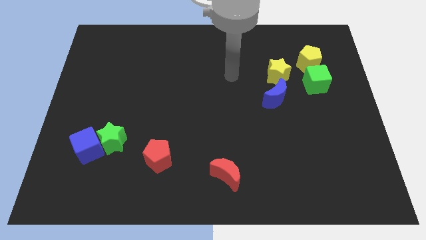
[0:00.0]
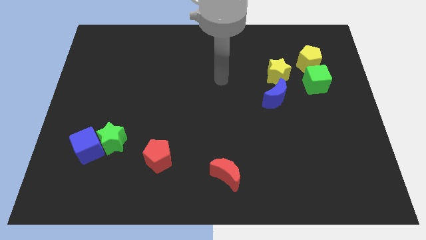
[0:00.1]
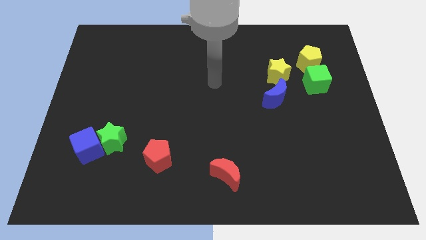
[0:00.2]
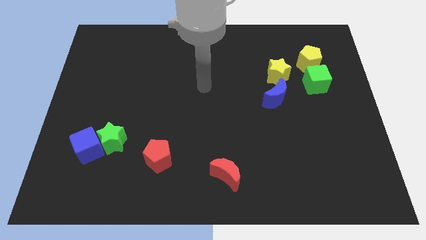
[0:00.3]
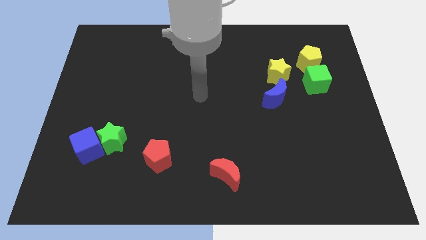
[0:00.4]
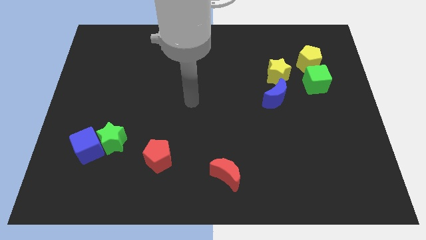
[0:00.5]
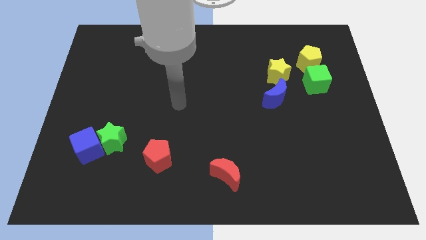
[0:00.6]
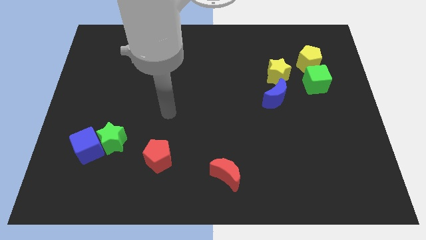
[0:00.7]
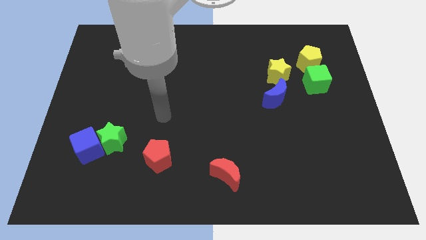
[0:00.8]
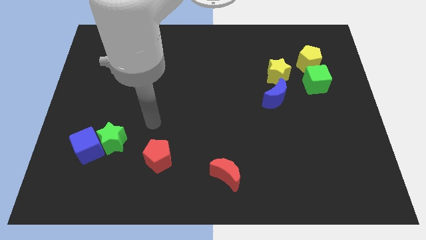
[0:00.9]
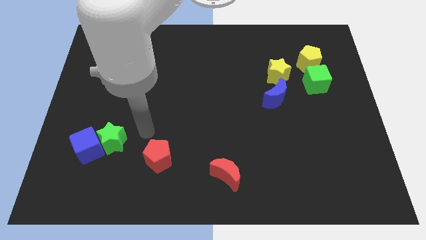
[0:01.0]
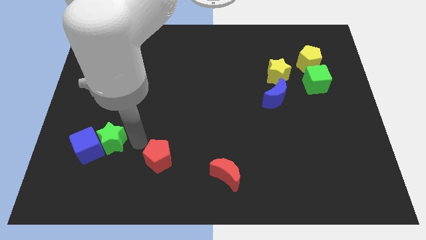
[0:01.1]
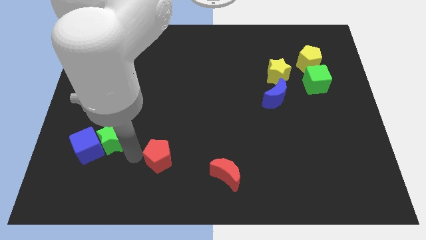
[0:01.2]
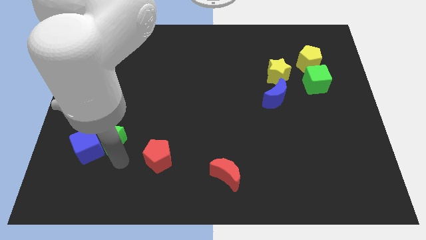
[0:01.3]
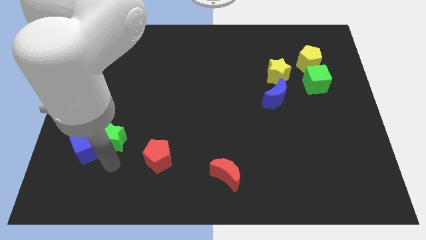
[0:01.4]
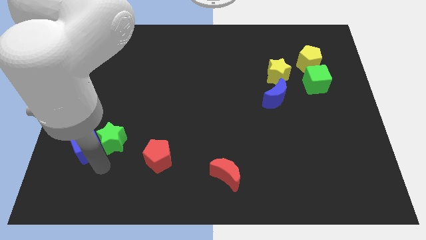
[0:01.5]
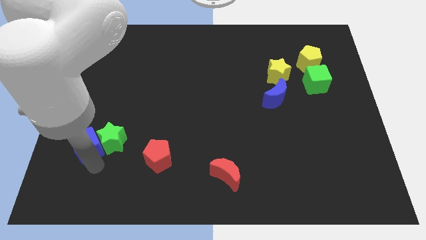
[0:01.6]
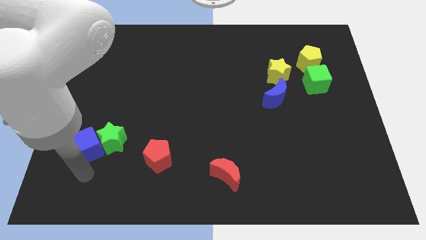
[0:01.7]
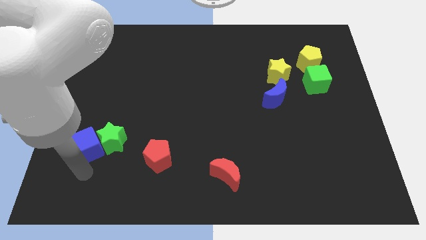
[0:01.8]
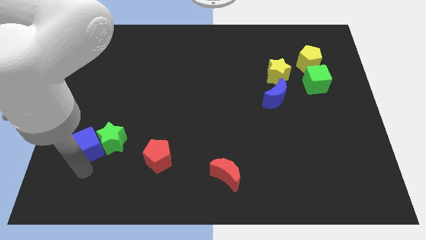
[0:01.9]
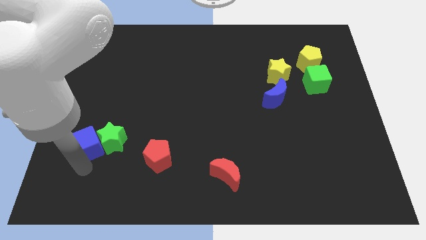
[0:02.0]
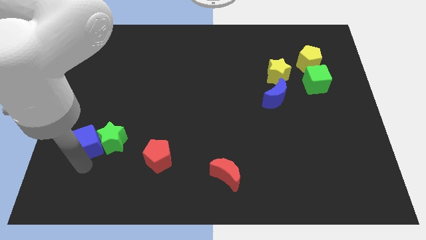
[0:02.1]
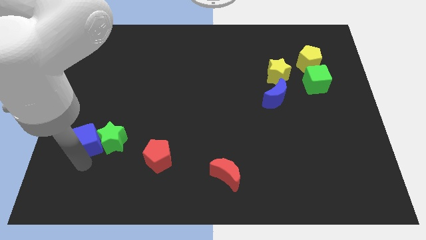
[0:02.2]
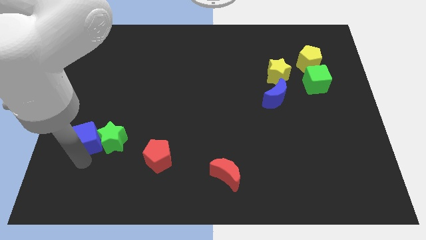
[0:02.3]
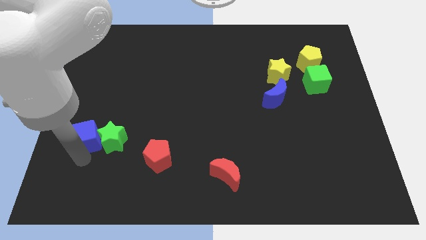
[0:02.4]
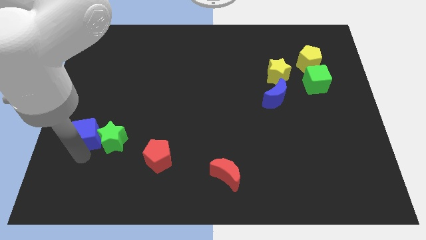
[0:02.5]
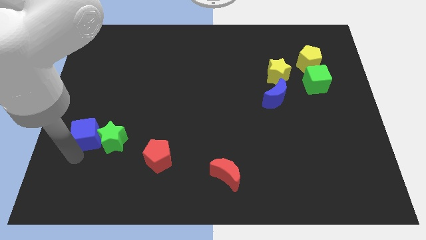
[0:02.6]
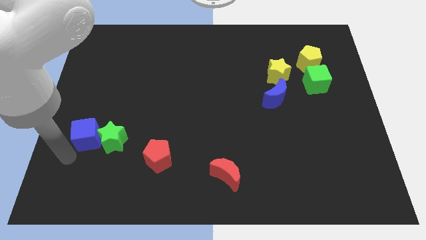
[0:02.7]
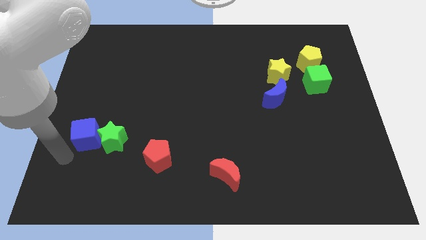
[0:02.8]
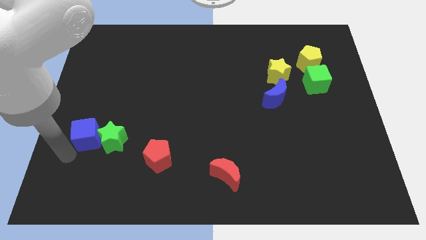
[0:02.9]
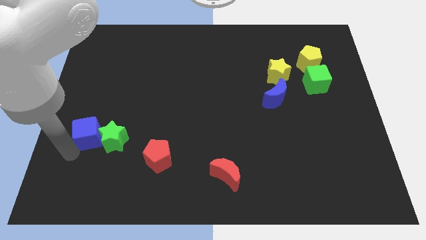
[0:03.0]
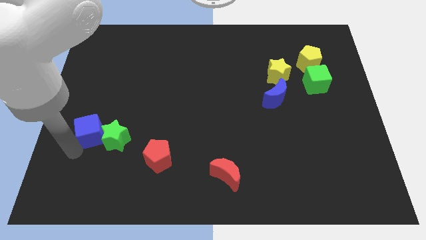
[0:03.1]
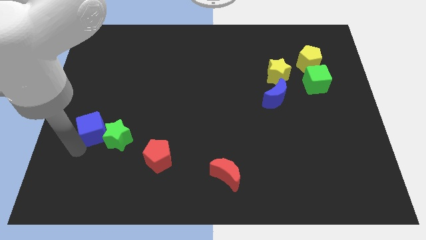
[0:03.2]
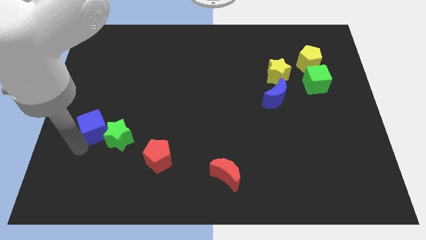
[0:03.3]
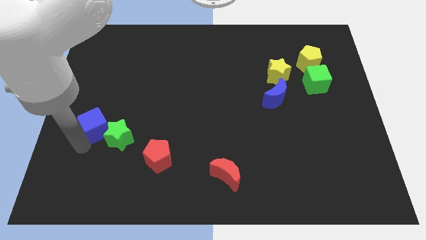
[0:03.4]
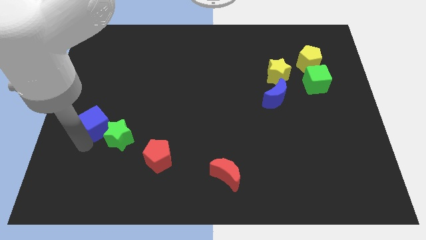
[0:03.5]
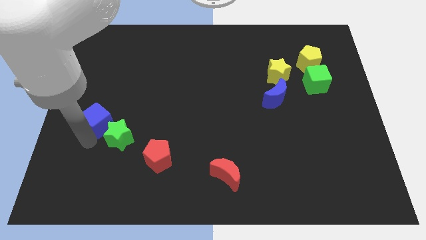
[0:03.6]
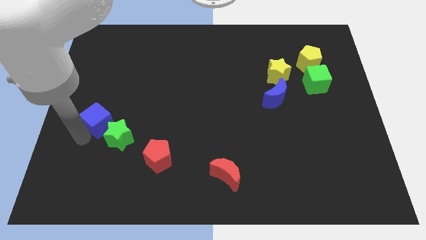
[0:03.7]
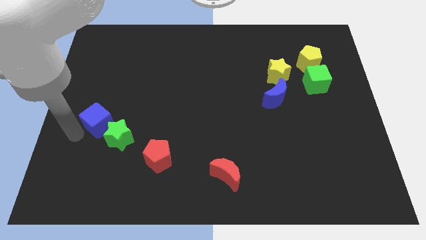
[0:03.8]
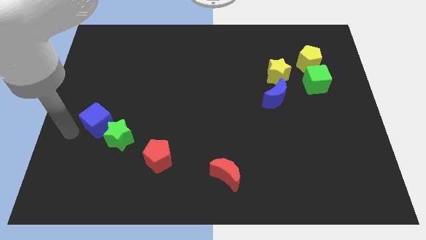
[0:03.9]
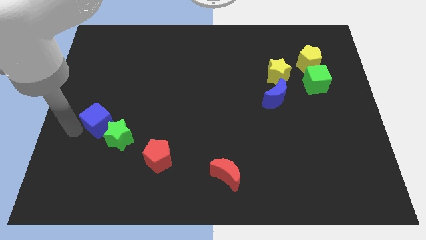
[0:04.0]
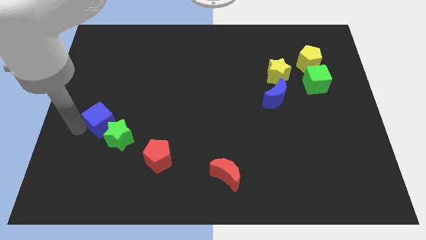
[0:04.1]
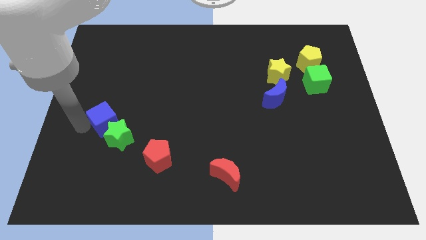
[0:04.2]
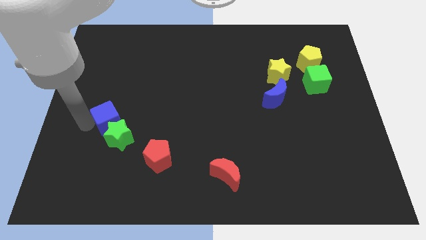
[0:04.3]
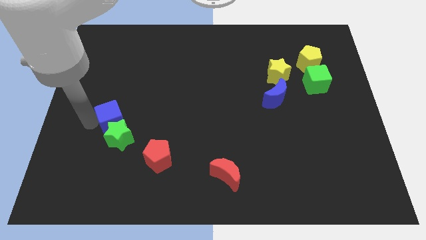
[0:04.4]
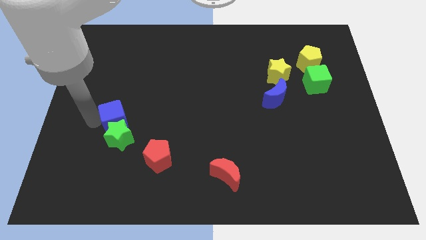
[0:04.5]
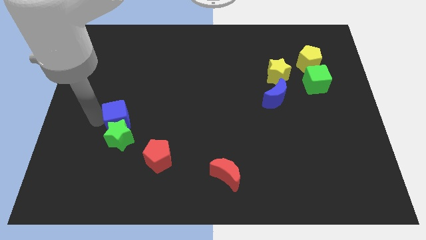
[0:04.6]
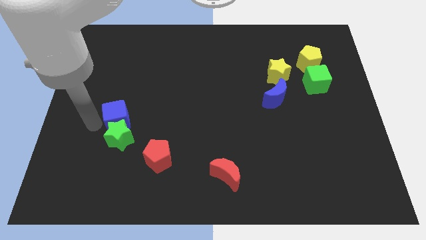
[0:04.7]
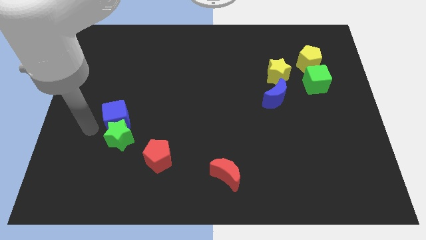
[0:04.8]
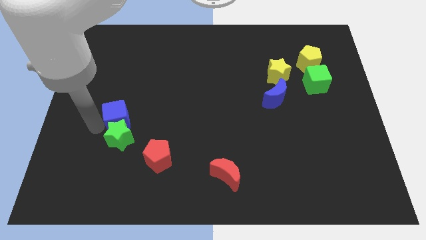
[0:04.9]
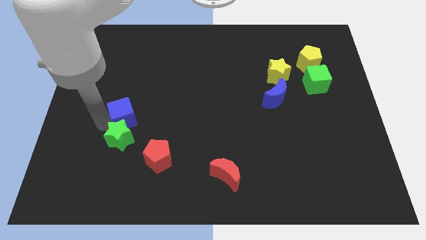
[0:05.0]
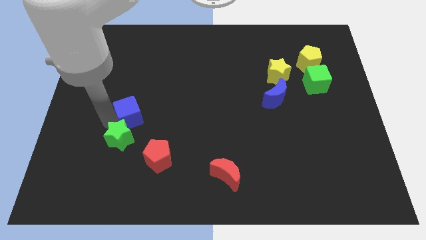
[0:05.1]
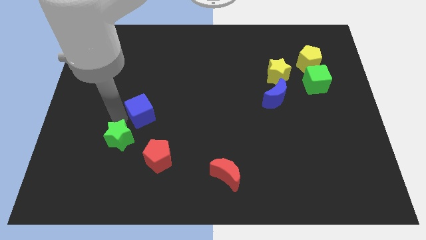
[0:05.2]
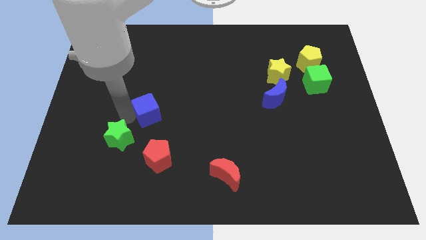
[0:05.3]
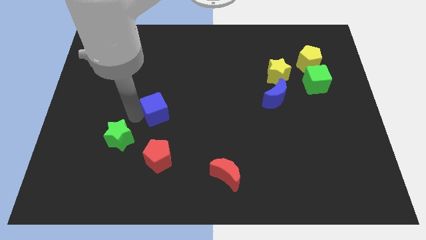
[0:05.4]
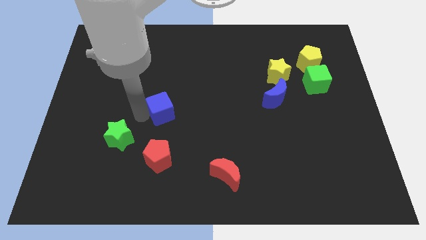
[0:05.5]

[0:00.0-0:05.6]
push the blue cube to the middle of the board

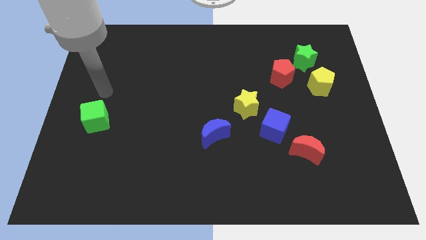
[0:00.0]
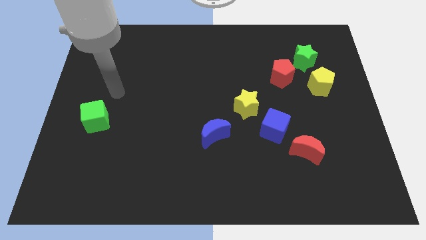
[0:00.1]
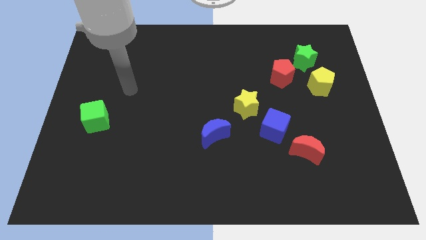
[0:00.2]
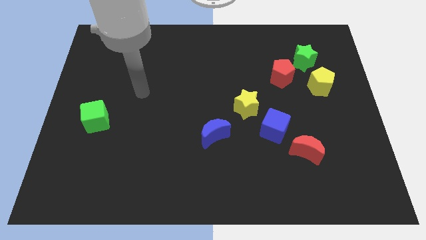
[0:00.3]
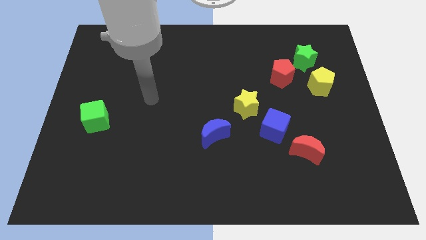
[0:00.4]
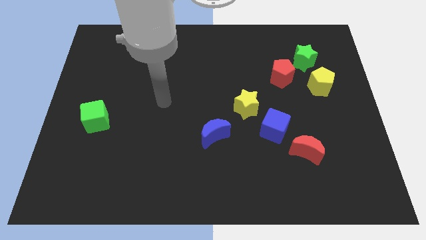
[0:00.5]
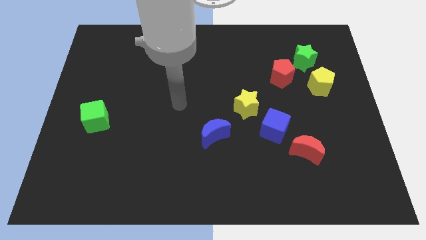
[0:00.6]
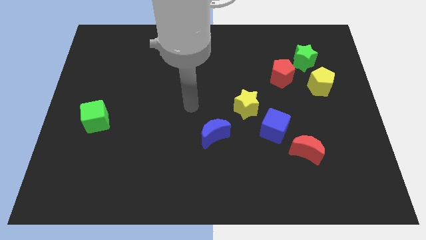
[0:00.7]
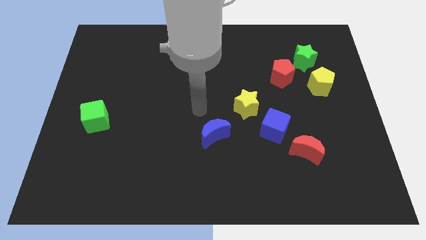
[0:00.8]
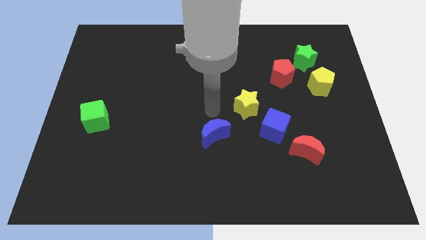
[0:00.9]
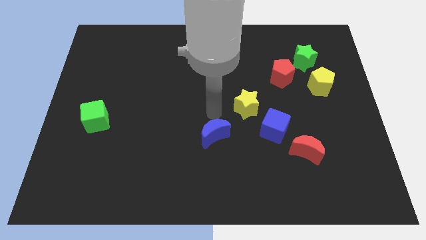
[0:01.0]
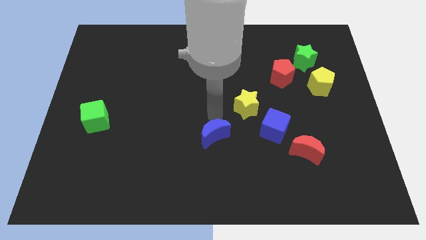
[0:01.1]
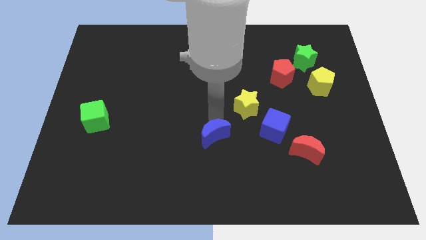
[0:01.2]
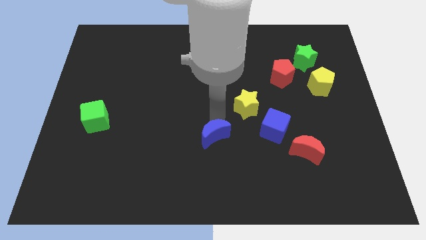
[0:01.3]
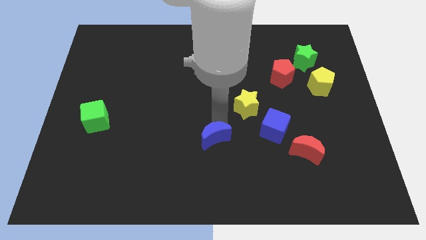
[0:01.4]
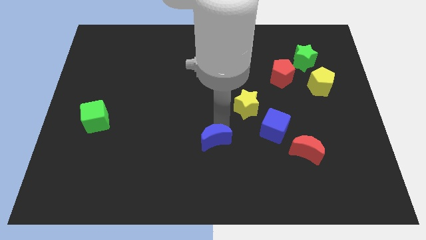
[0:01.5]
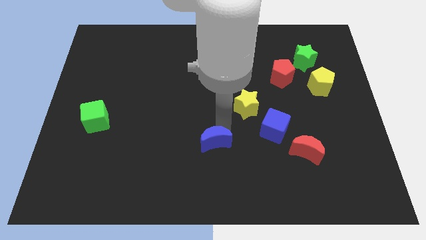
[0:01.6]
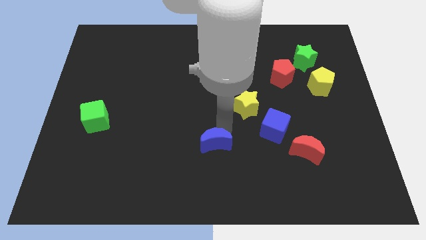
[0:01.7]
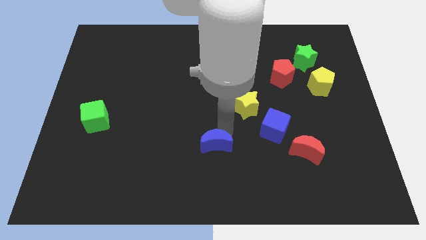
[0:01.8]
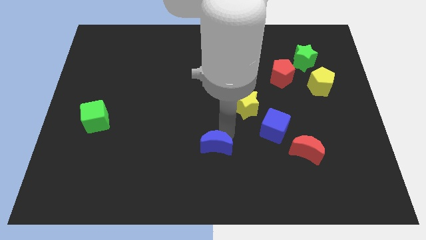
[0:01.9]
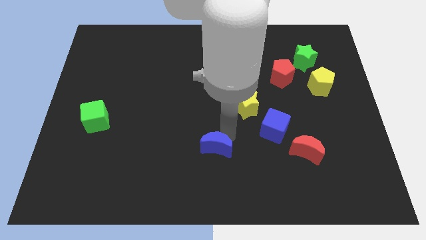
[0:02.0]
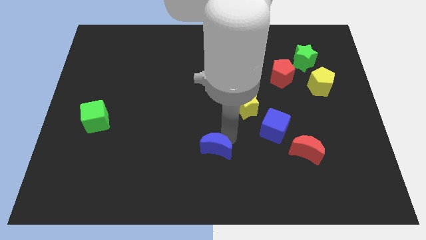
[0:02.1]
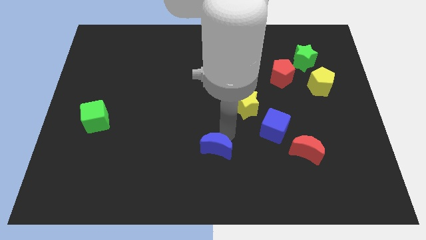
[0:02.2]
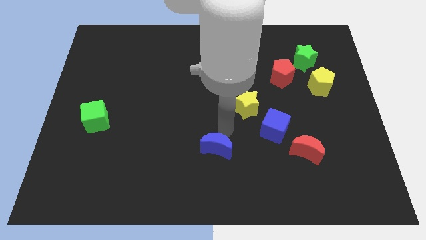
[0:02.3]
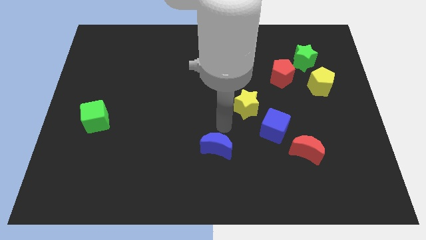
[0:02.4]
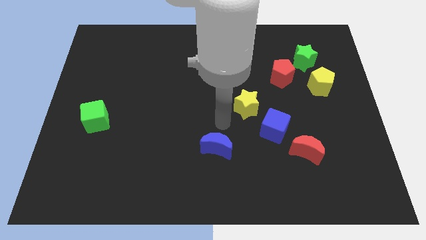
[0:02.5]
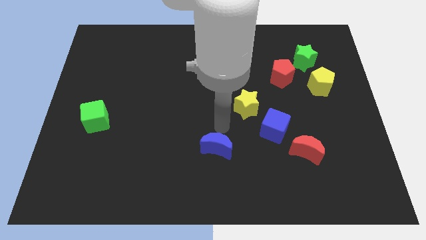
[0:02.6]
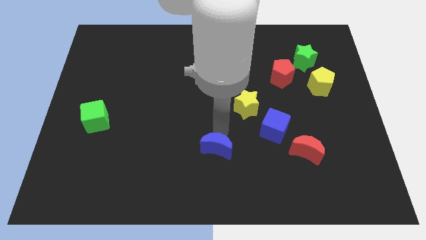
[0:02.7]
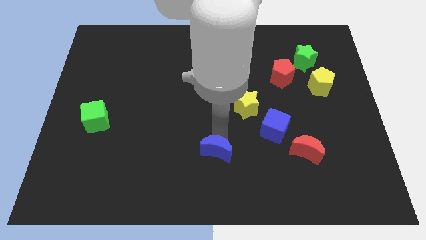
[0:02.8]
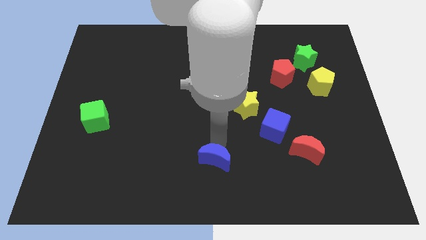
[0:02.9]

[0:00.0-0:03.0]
slide the blue moon to the bottom side
